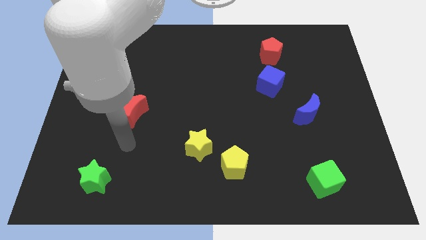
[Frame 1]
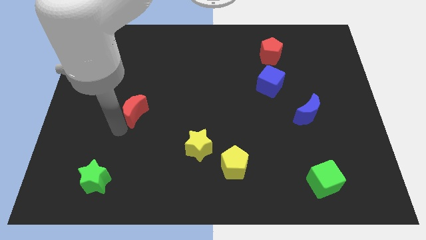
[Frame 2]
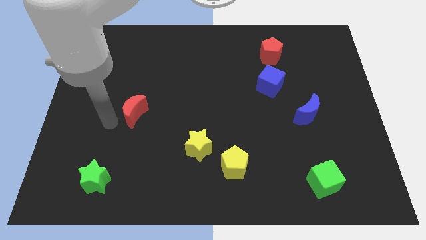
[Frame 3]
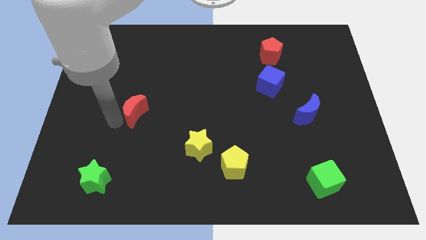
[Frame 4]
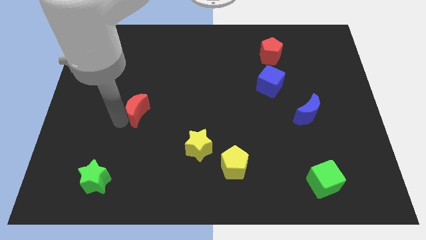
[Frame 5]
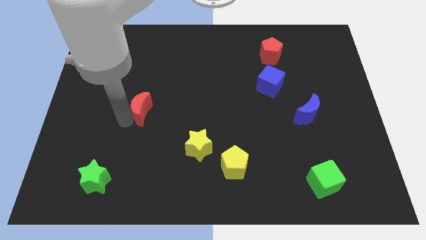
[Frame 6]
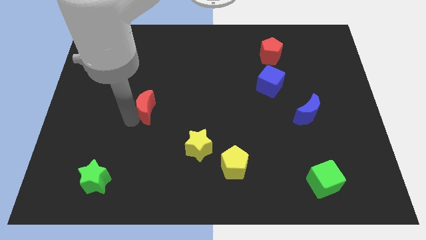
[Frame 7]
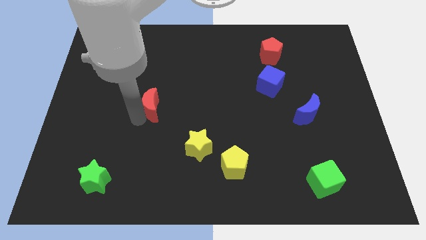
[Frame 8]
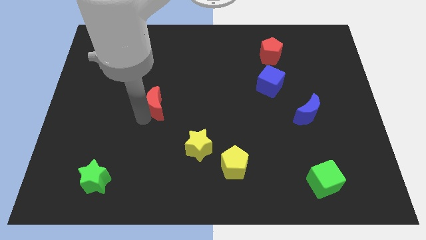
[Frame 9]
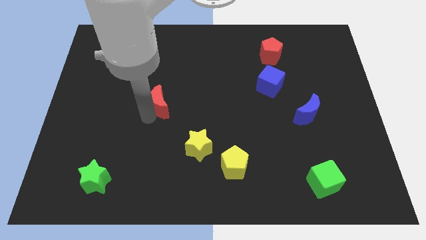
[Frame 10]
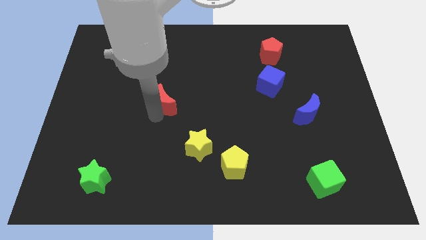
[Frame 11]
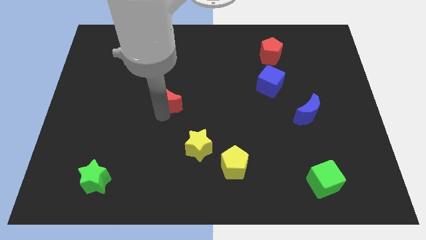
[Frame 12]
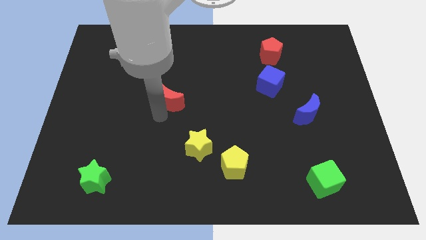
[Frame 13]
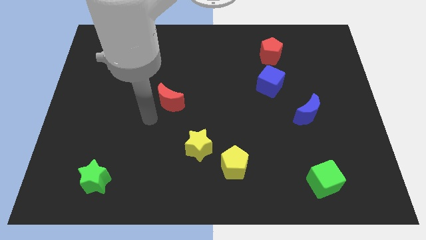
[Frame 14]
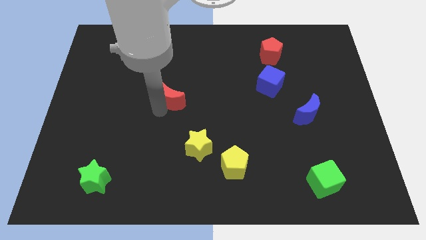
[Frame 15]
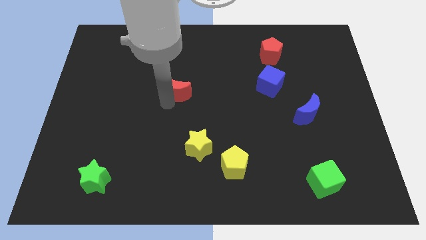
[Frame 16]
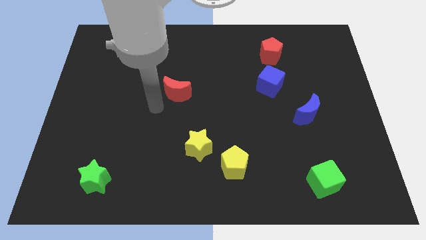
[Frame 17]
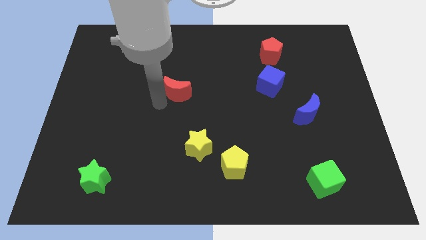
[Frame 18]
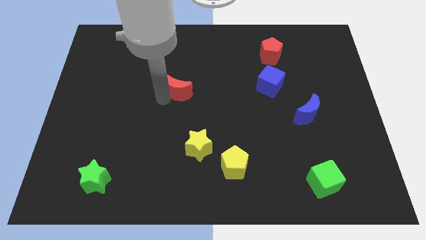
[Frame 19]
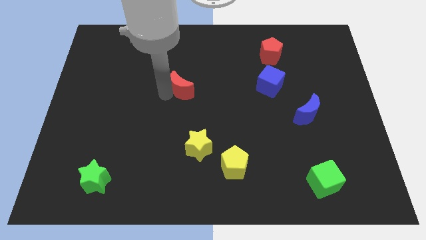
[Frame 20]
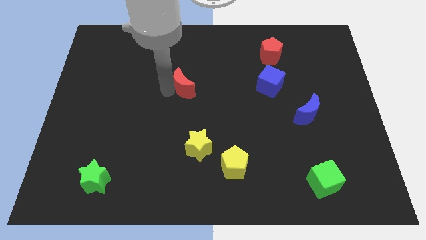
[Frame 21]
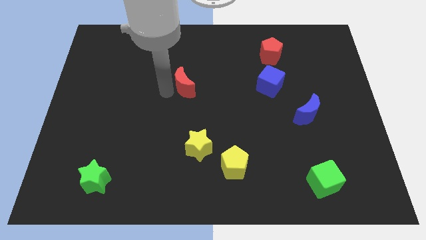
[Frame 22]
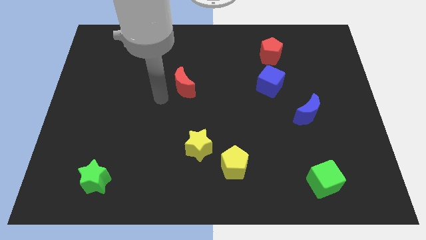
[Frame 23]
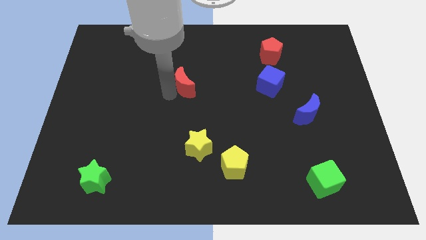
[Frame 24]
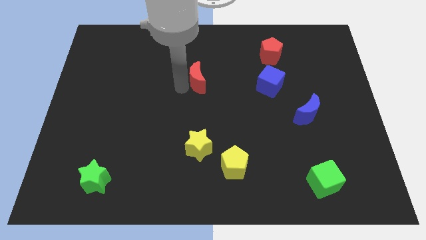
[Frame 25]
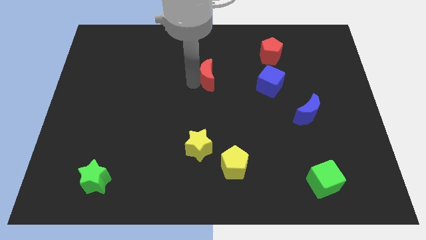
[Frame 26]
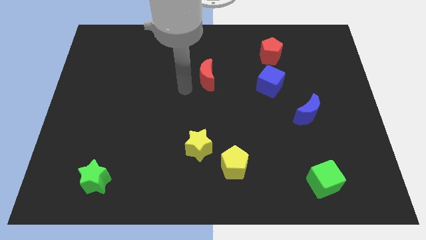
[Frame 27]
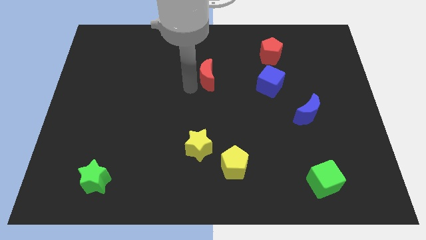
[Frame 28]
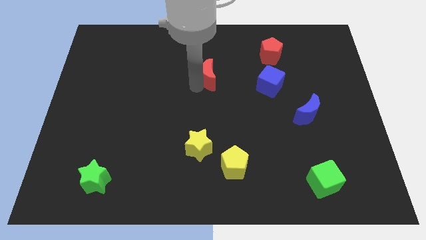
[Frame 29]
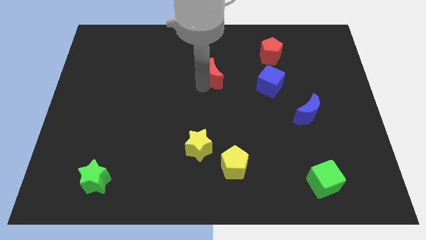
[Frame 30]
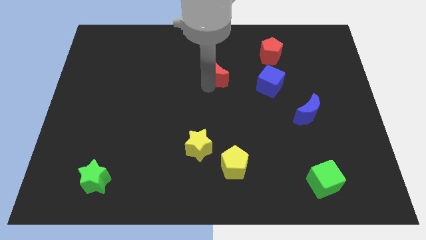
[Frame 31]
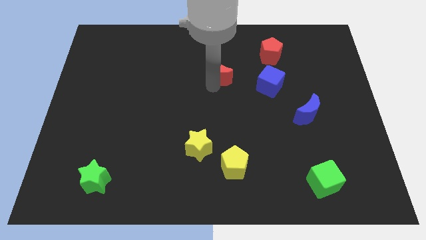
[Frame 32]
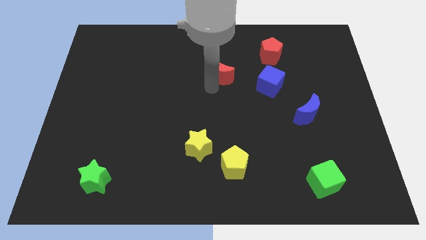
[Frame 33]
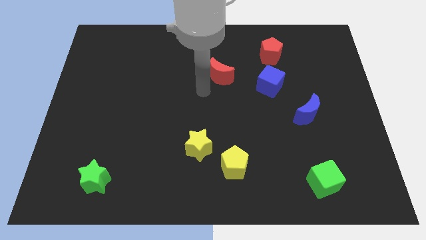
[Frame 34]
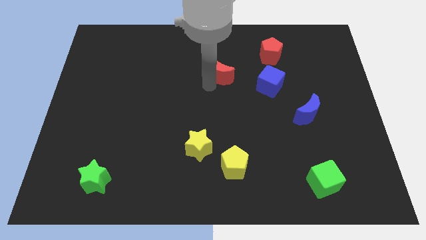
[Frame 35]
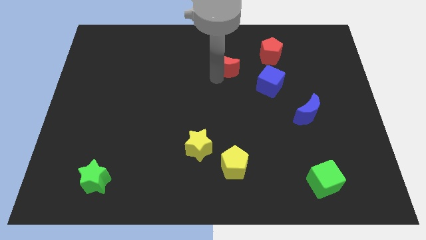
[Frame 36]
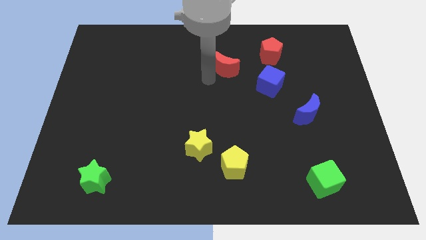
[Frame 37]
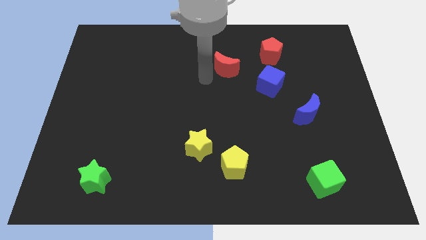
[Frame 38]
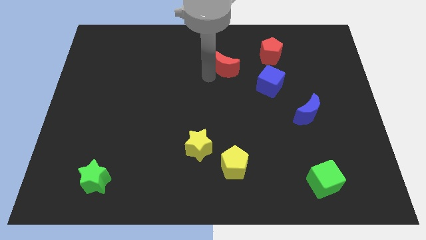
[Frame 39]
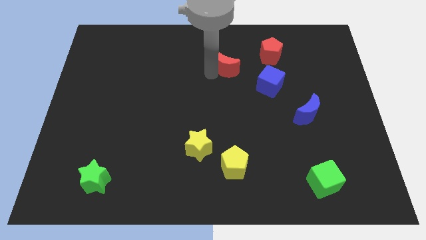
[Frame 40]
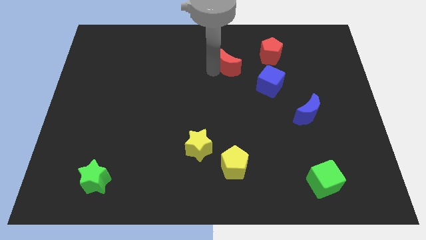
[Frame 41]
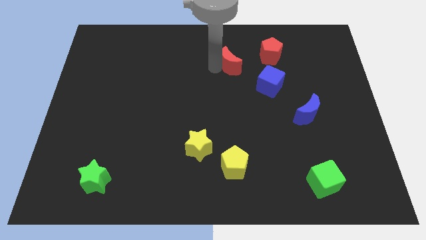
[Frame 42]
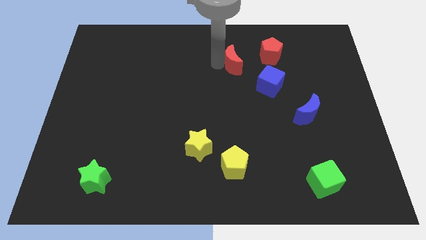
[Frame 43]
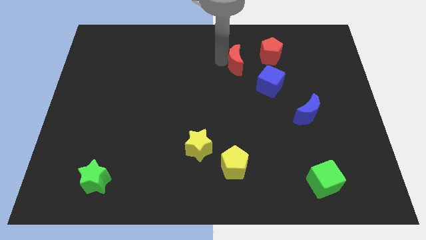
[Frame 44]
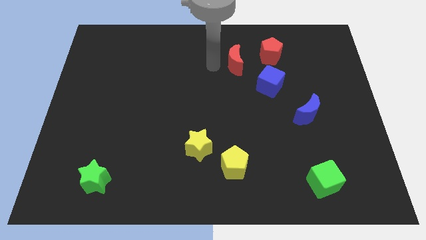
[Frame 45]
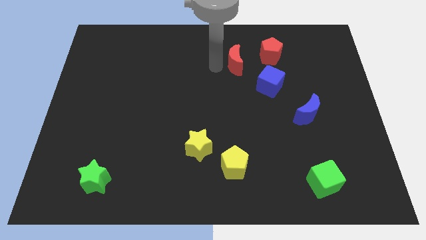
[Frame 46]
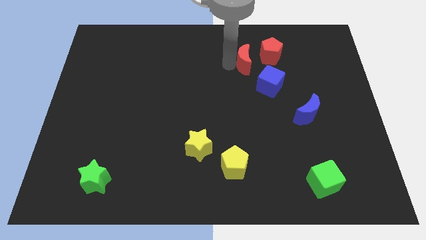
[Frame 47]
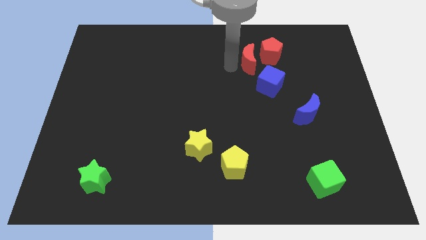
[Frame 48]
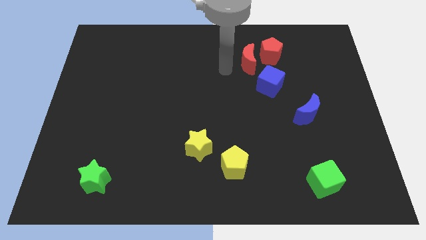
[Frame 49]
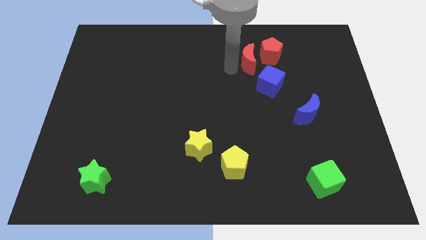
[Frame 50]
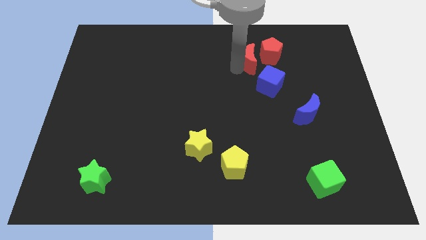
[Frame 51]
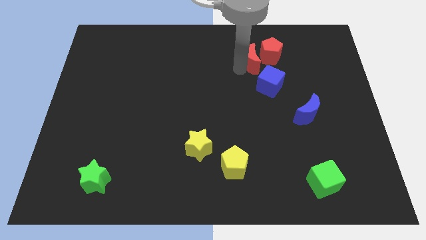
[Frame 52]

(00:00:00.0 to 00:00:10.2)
put the red moon to the red pentagon

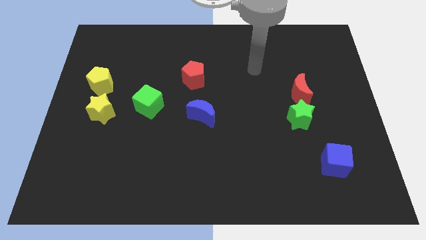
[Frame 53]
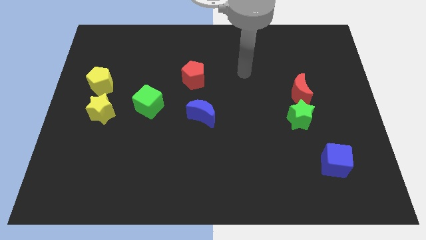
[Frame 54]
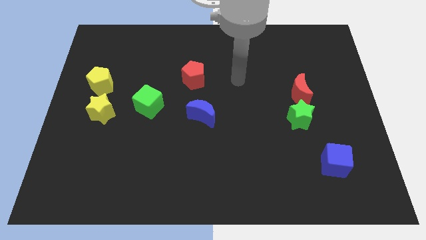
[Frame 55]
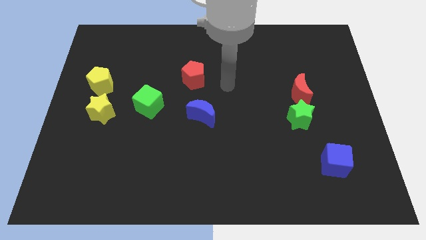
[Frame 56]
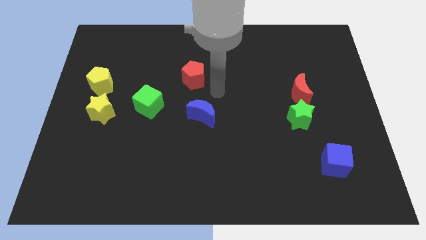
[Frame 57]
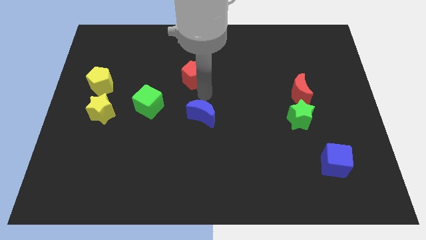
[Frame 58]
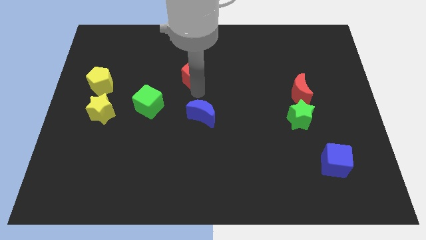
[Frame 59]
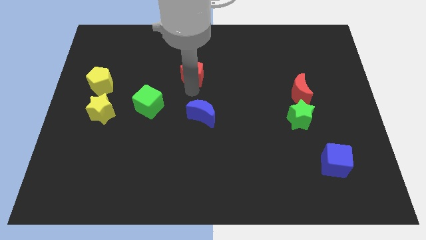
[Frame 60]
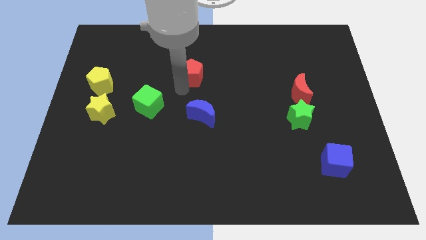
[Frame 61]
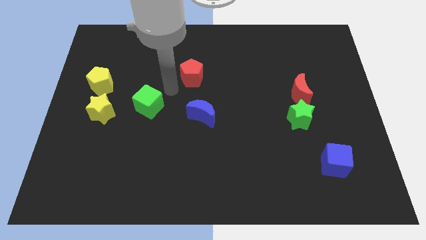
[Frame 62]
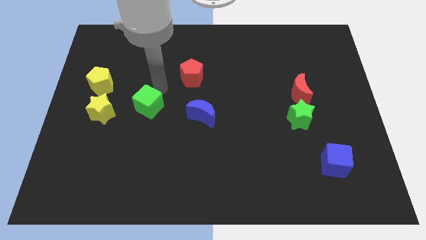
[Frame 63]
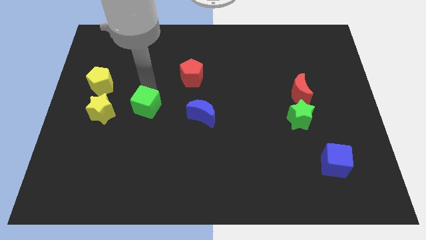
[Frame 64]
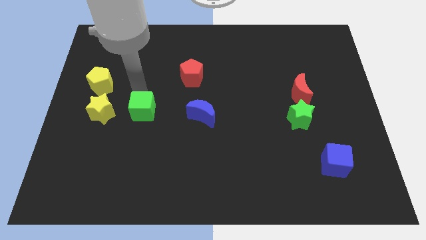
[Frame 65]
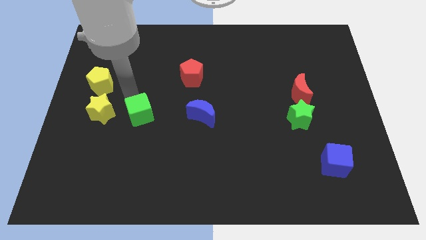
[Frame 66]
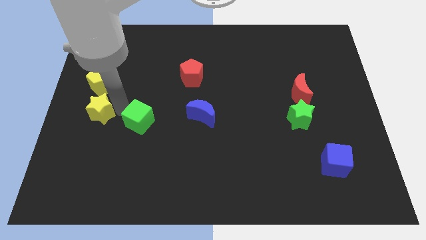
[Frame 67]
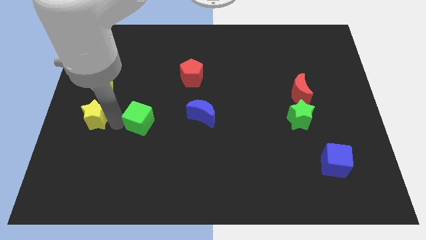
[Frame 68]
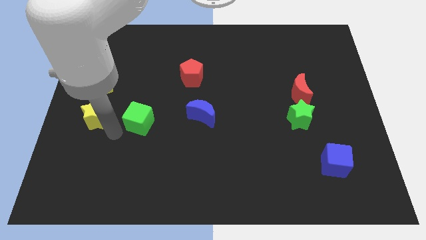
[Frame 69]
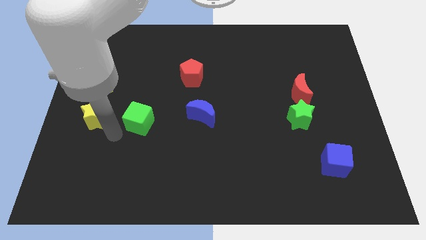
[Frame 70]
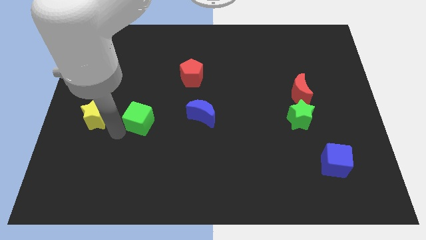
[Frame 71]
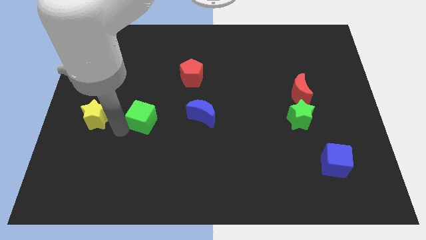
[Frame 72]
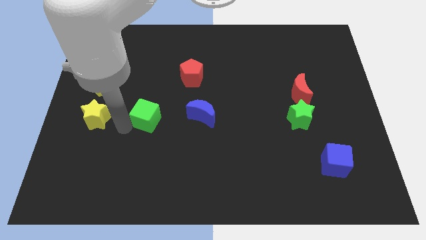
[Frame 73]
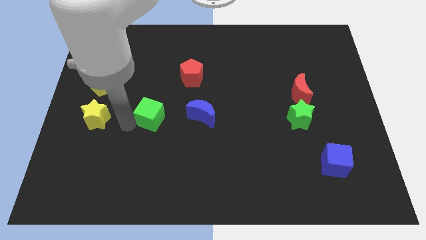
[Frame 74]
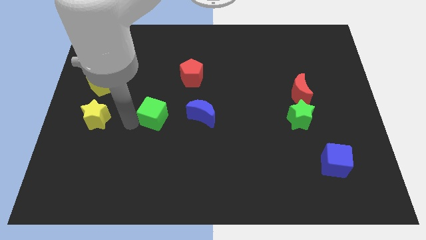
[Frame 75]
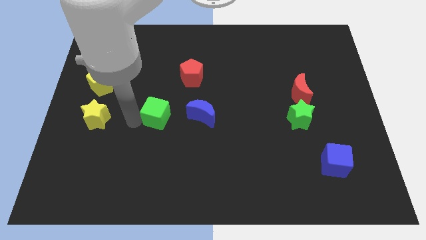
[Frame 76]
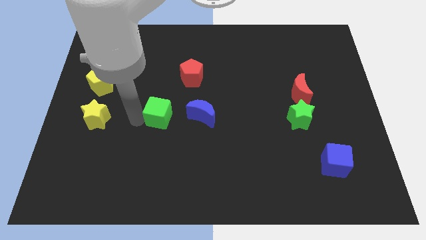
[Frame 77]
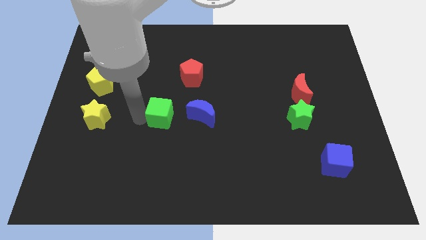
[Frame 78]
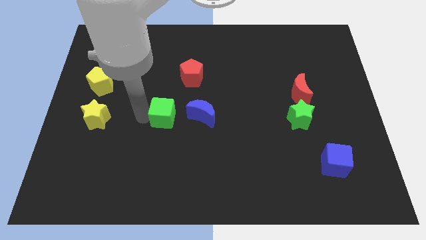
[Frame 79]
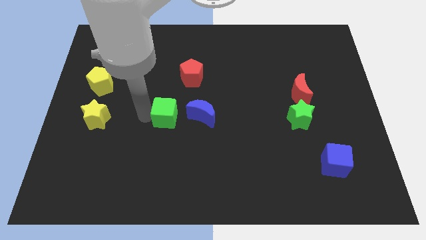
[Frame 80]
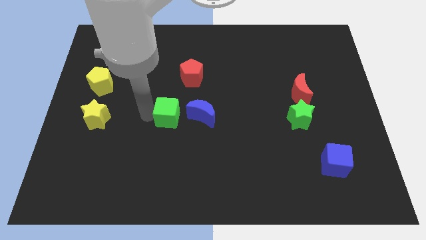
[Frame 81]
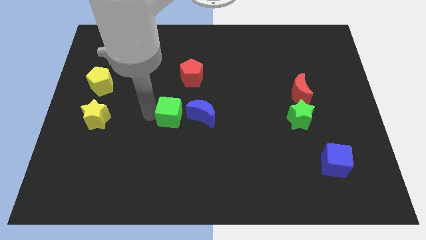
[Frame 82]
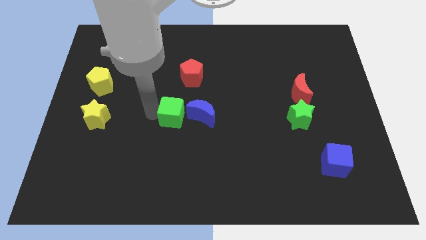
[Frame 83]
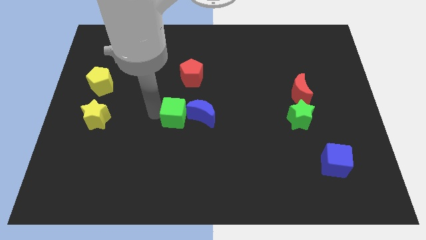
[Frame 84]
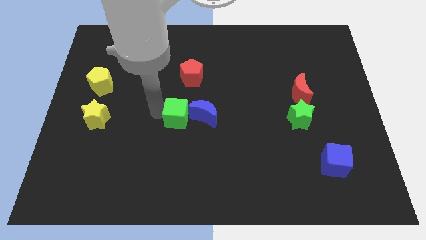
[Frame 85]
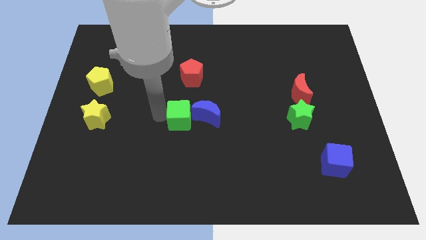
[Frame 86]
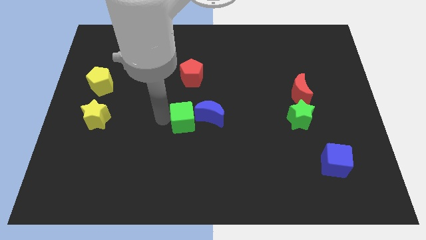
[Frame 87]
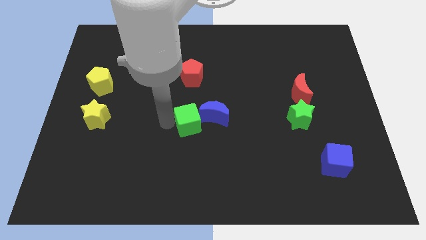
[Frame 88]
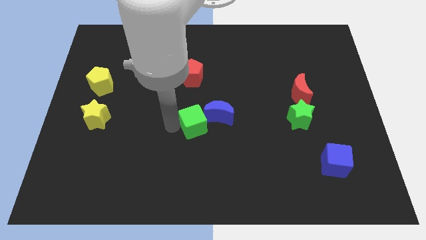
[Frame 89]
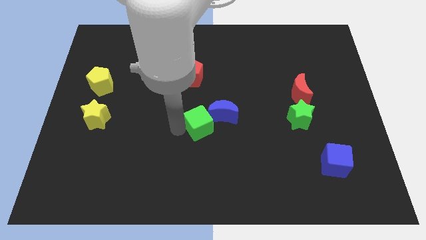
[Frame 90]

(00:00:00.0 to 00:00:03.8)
slide the green cube to the blue moon
